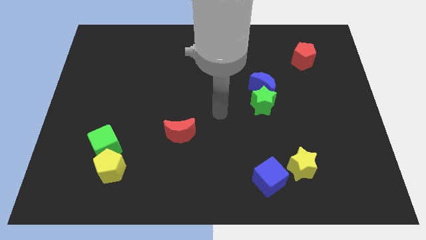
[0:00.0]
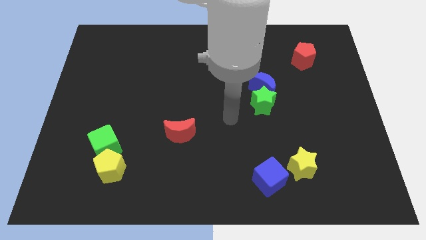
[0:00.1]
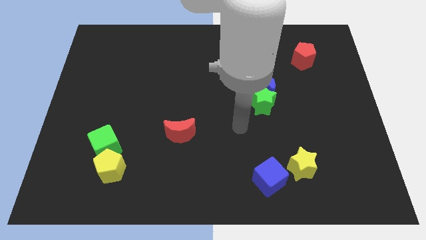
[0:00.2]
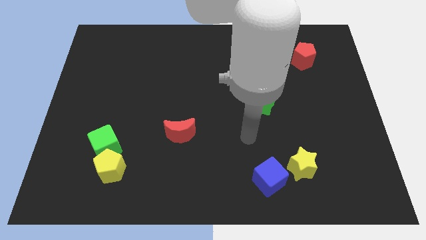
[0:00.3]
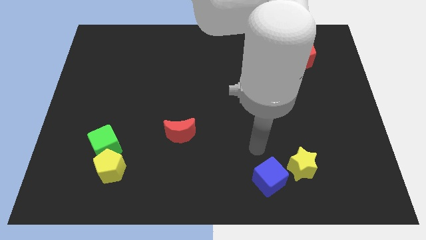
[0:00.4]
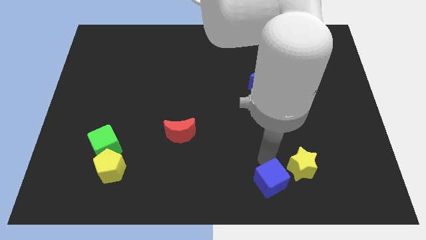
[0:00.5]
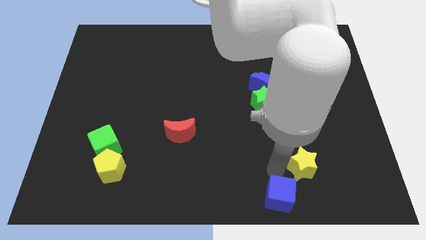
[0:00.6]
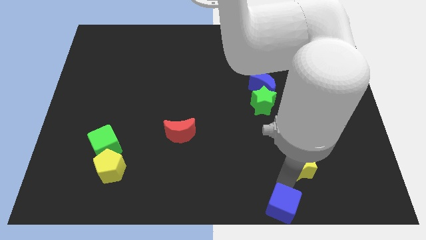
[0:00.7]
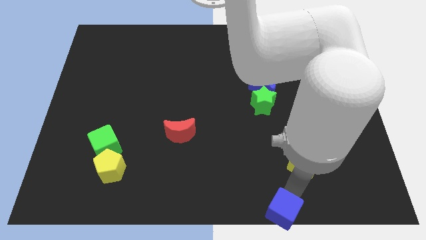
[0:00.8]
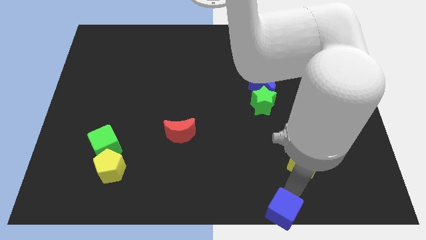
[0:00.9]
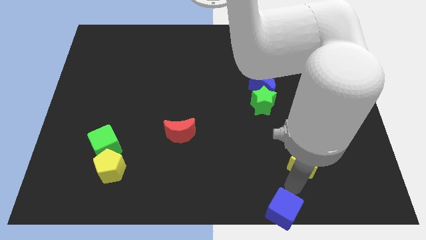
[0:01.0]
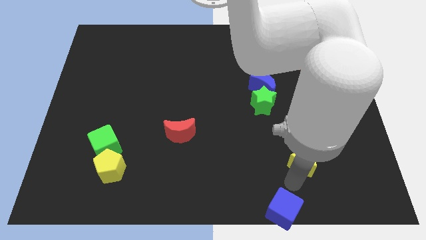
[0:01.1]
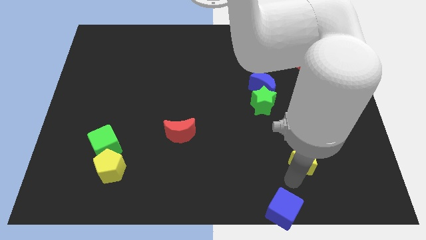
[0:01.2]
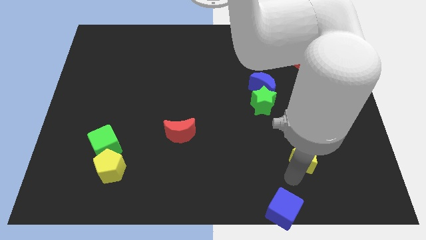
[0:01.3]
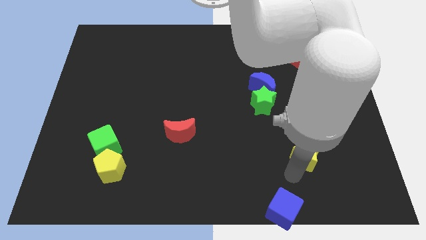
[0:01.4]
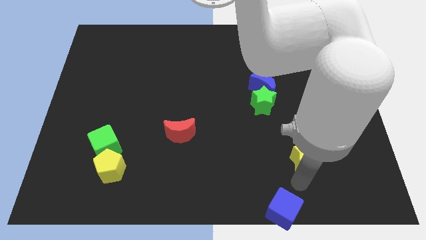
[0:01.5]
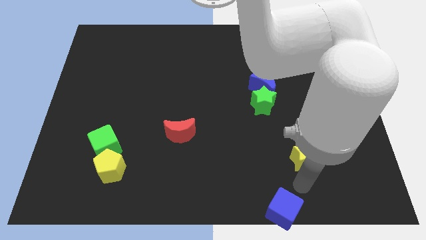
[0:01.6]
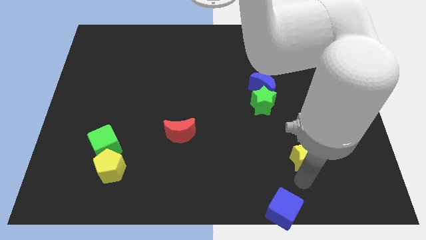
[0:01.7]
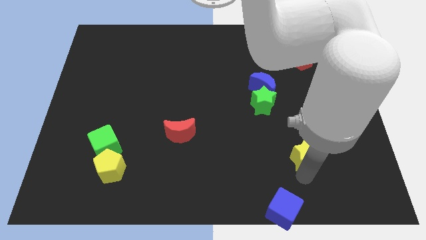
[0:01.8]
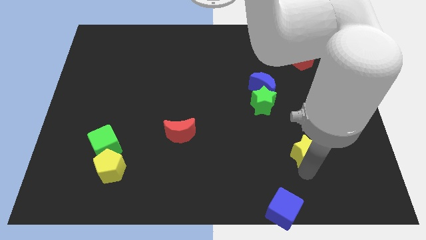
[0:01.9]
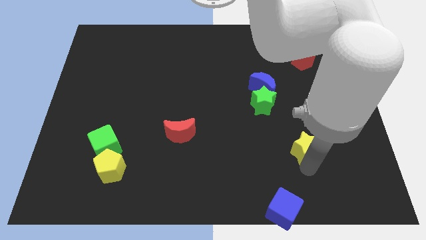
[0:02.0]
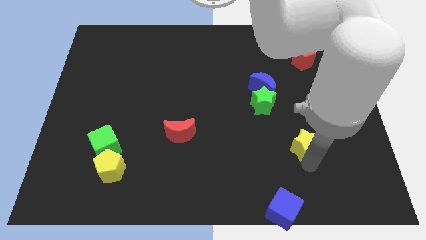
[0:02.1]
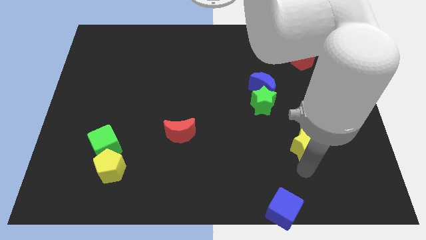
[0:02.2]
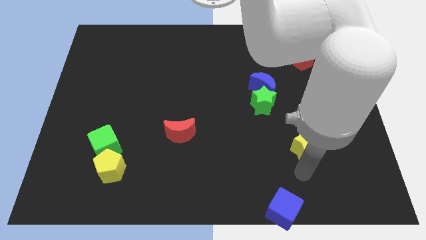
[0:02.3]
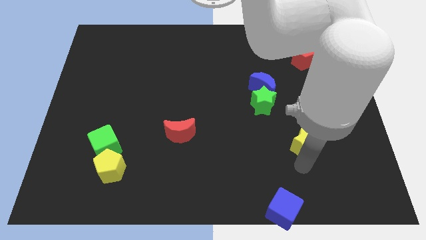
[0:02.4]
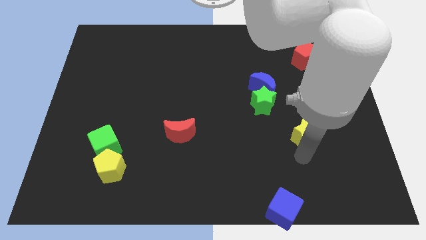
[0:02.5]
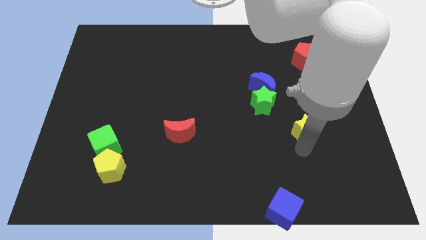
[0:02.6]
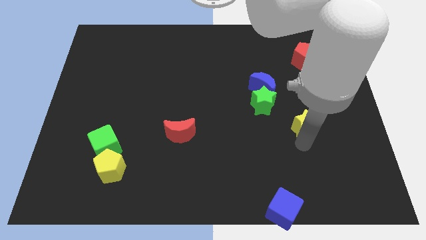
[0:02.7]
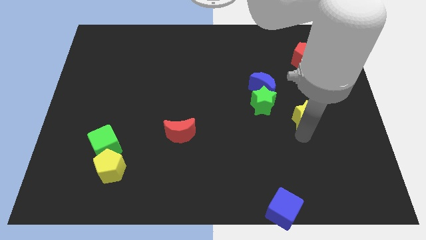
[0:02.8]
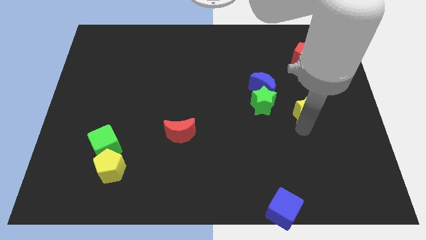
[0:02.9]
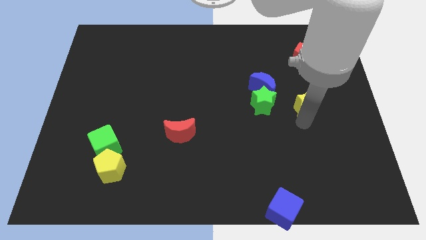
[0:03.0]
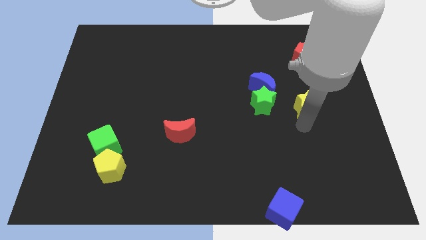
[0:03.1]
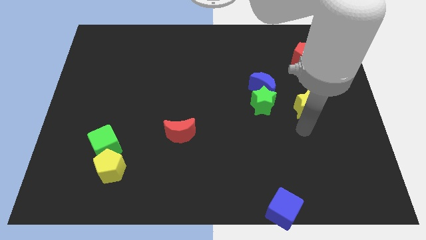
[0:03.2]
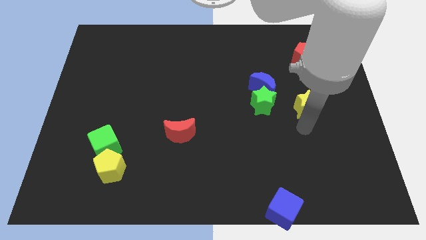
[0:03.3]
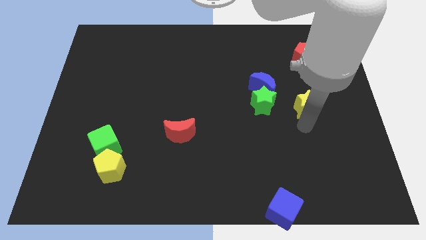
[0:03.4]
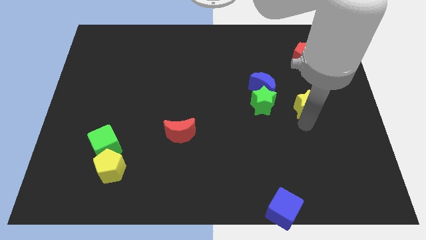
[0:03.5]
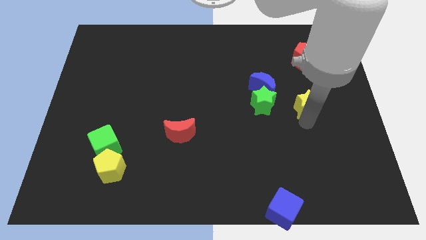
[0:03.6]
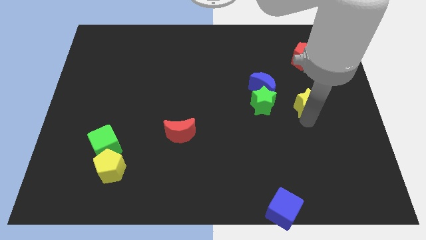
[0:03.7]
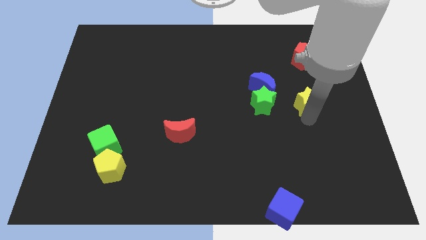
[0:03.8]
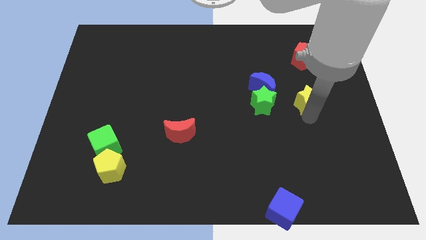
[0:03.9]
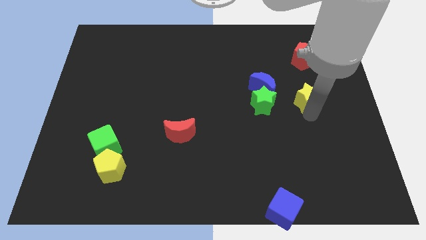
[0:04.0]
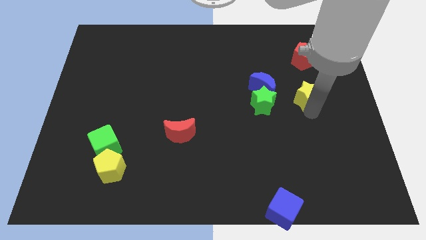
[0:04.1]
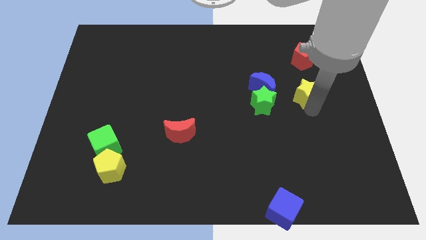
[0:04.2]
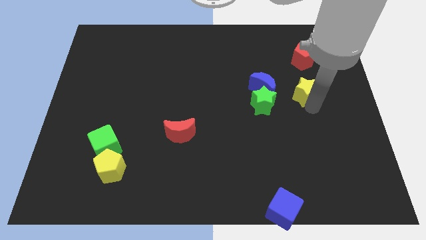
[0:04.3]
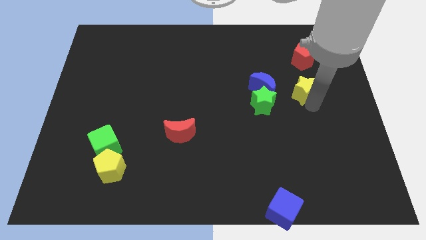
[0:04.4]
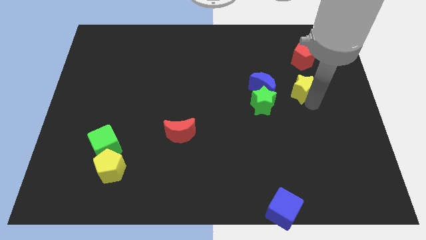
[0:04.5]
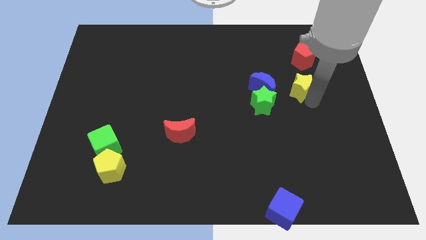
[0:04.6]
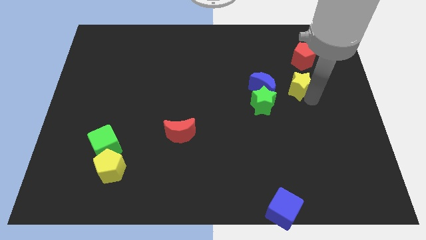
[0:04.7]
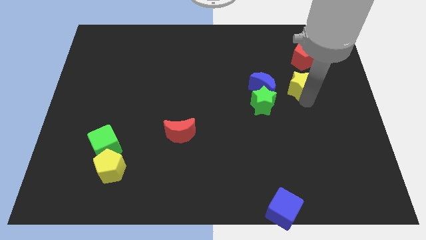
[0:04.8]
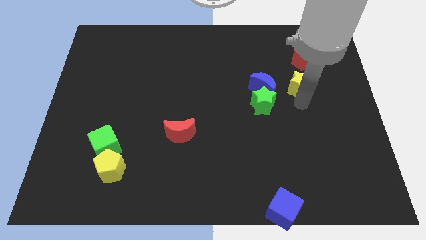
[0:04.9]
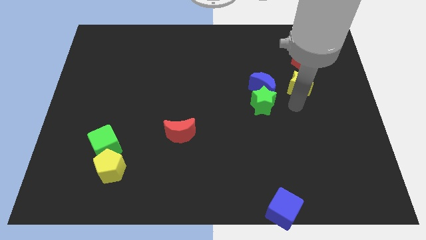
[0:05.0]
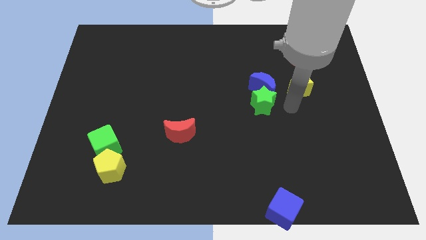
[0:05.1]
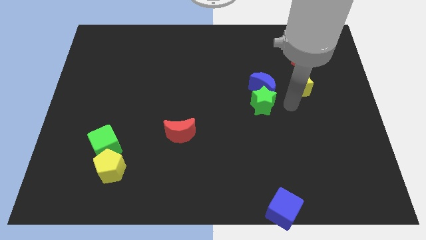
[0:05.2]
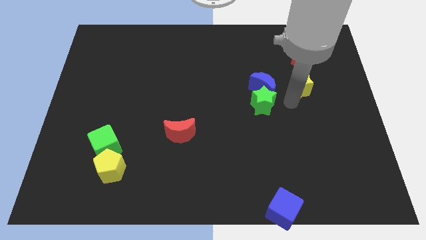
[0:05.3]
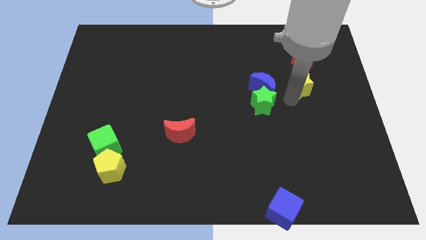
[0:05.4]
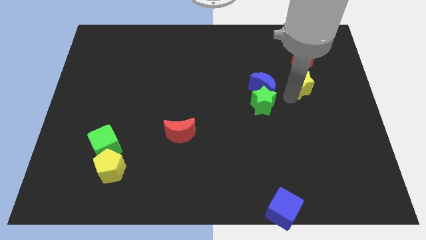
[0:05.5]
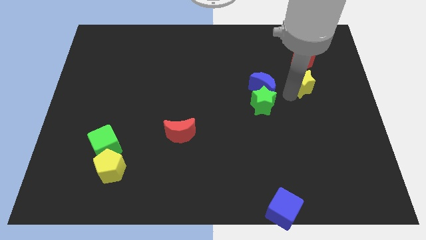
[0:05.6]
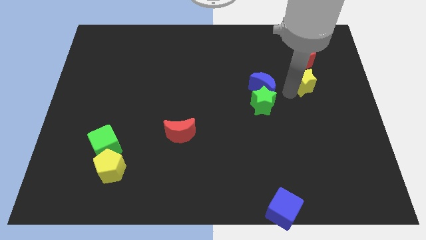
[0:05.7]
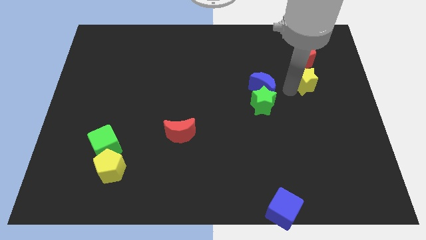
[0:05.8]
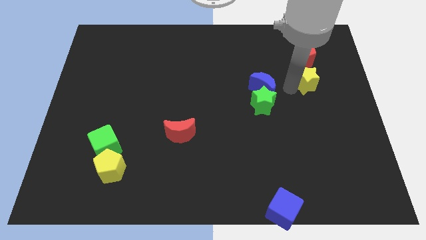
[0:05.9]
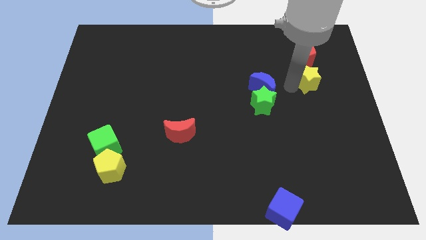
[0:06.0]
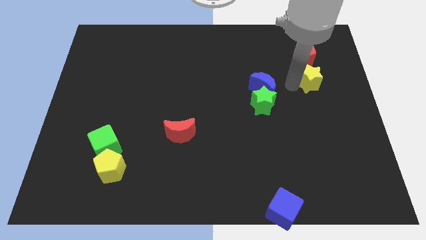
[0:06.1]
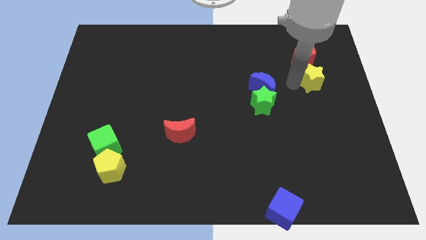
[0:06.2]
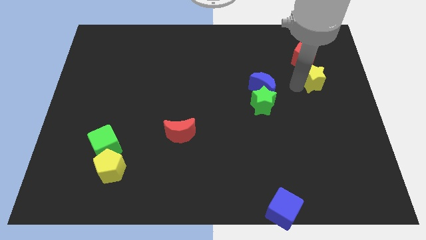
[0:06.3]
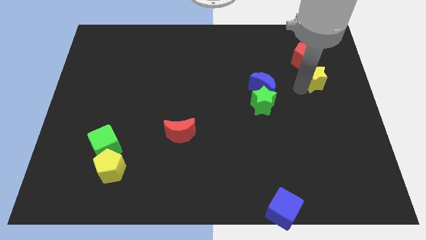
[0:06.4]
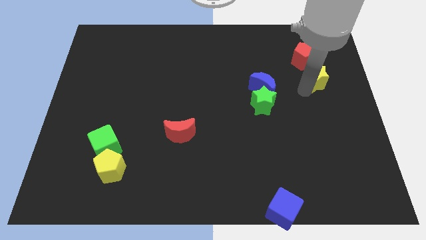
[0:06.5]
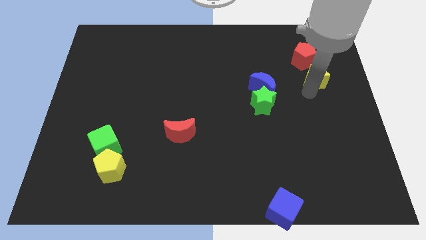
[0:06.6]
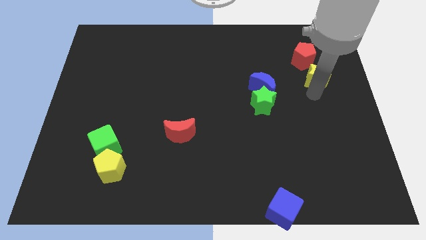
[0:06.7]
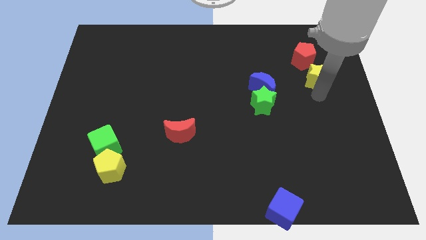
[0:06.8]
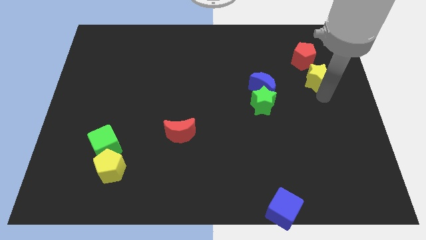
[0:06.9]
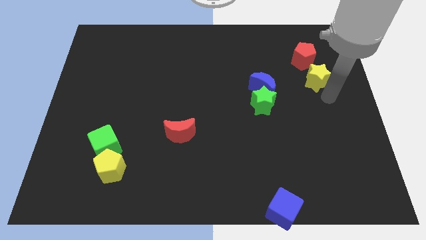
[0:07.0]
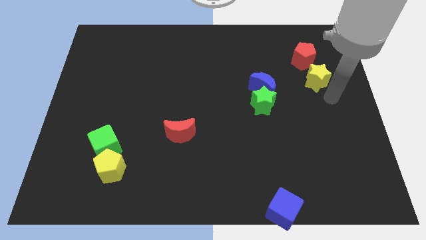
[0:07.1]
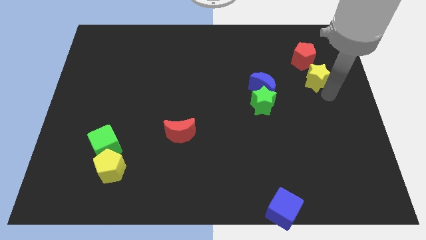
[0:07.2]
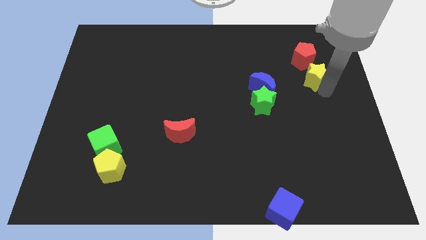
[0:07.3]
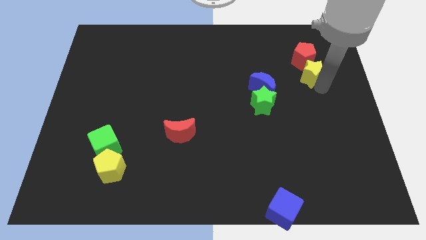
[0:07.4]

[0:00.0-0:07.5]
push the yellow star next to the red pentagon
